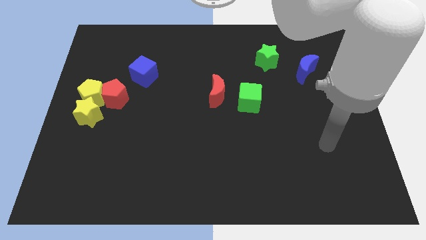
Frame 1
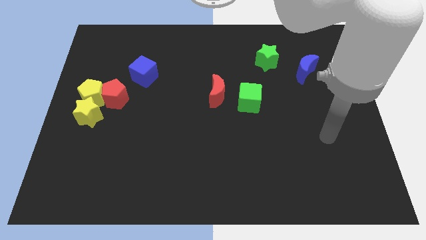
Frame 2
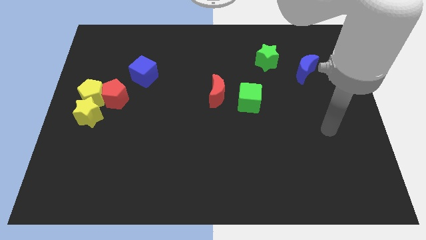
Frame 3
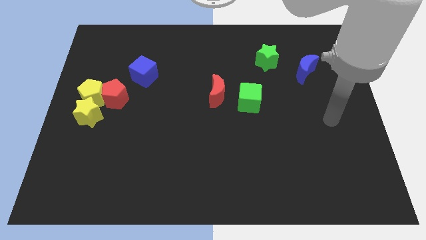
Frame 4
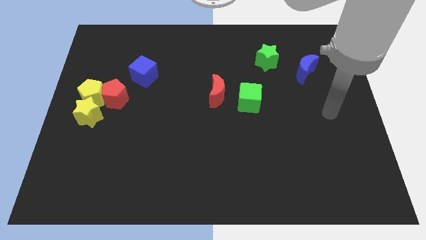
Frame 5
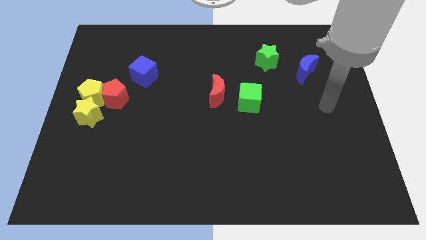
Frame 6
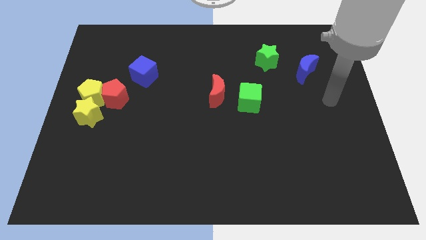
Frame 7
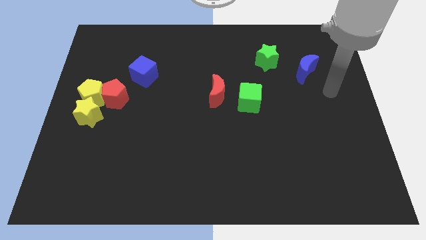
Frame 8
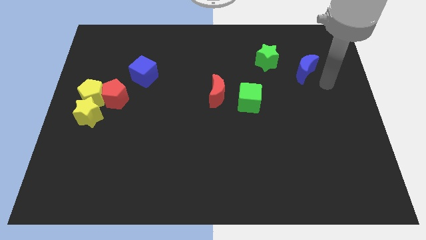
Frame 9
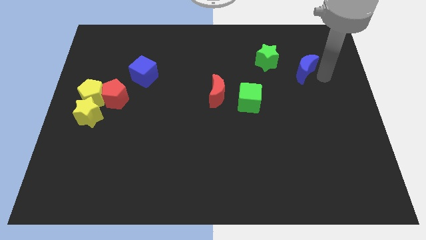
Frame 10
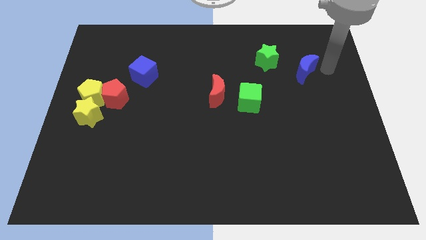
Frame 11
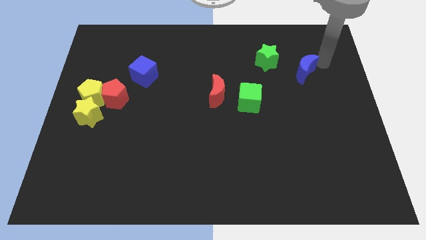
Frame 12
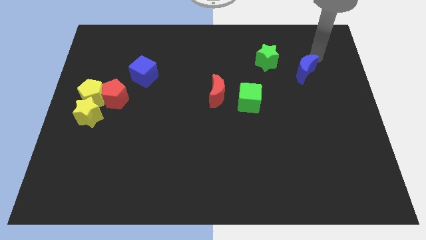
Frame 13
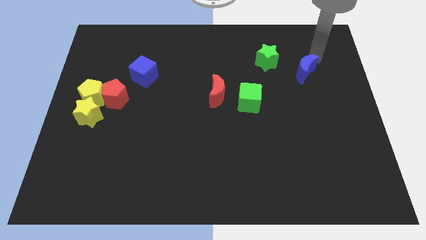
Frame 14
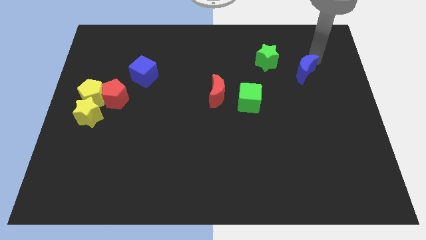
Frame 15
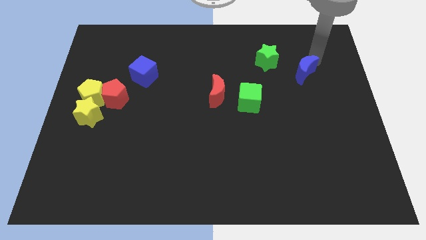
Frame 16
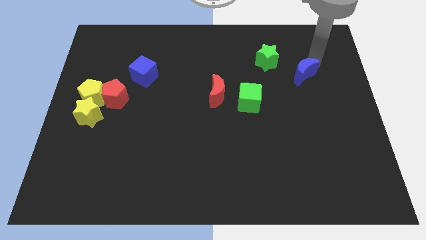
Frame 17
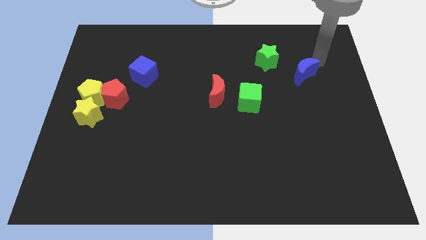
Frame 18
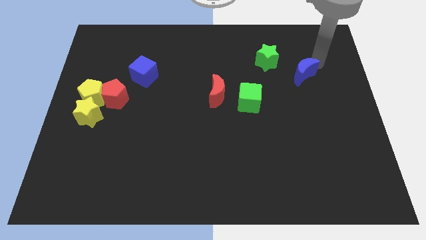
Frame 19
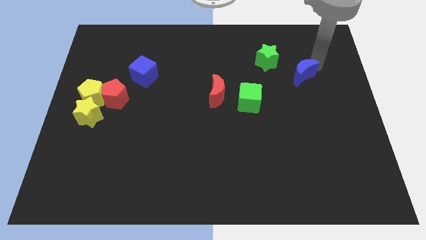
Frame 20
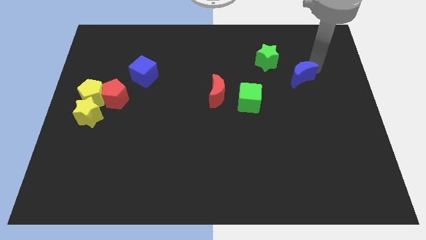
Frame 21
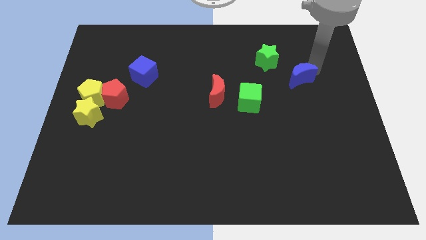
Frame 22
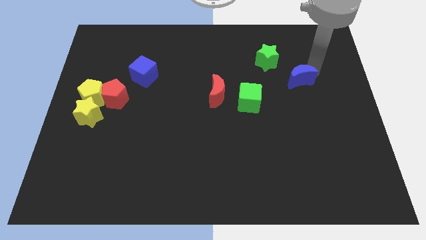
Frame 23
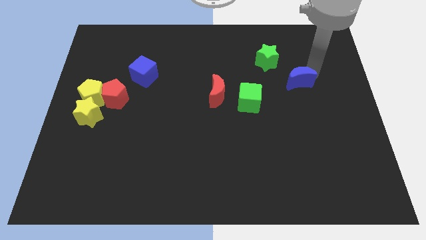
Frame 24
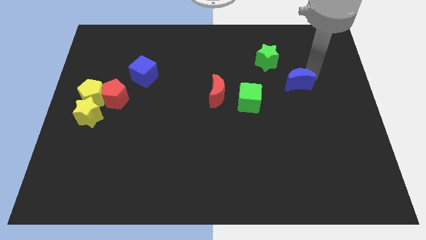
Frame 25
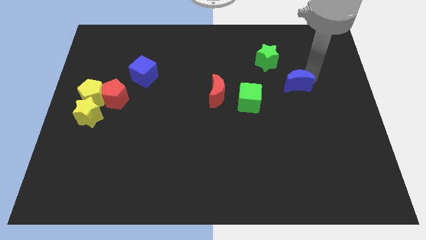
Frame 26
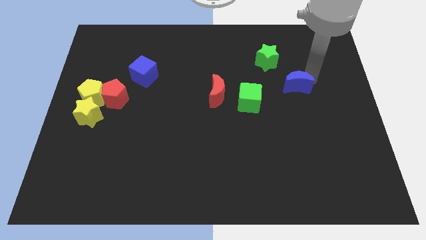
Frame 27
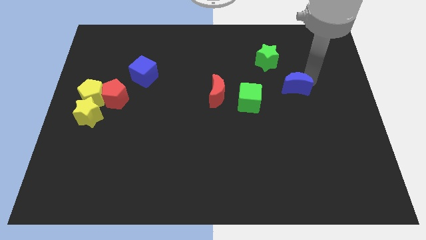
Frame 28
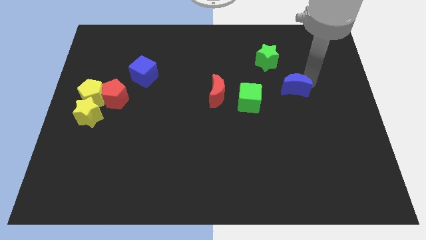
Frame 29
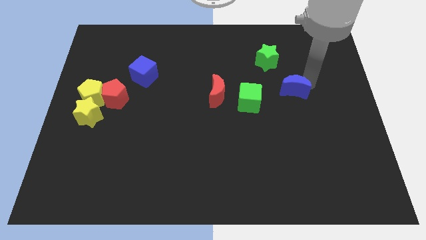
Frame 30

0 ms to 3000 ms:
slide the blue moon diagonally downwards and left a little bit

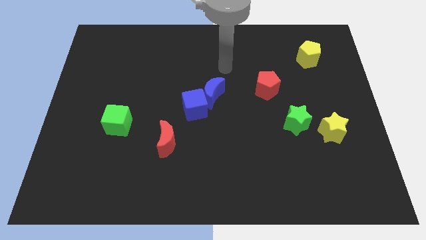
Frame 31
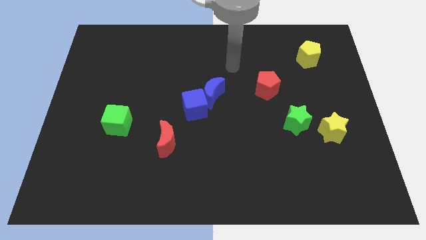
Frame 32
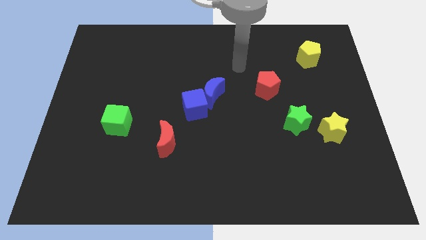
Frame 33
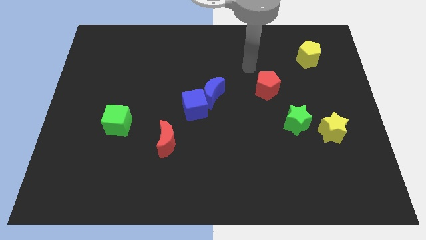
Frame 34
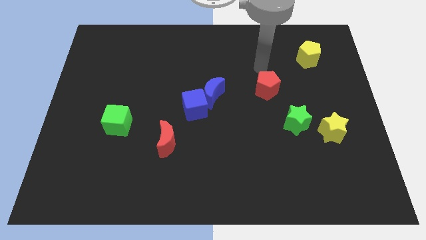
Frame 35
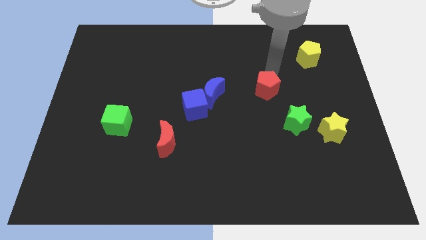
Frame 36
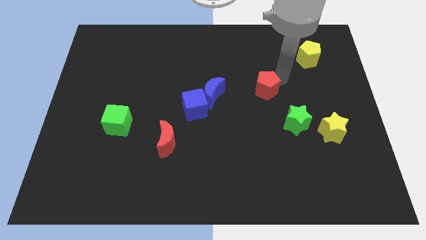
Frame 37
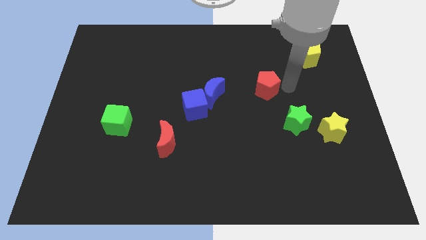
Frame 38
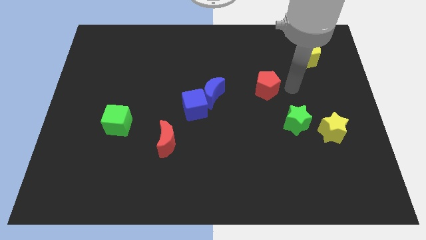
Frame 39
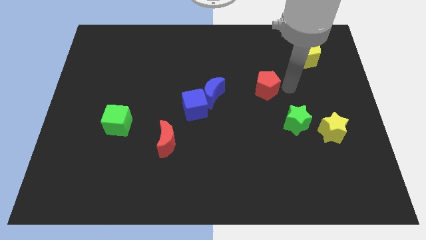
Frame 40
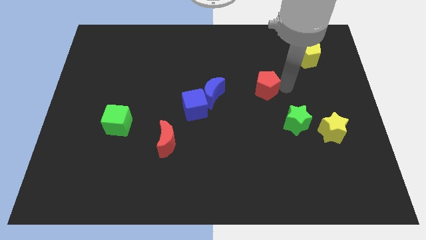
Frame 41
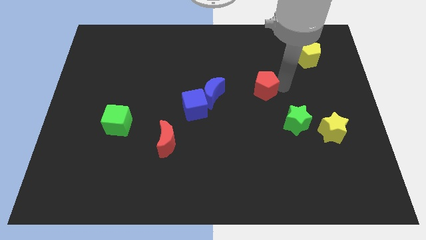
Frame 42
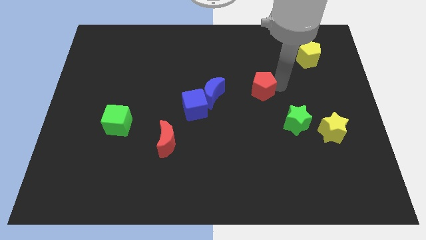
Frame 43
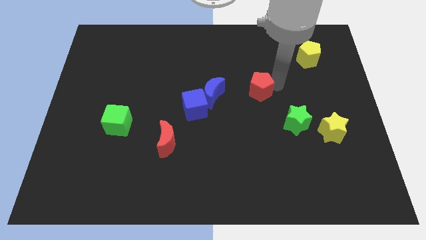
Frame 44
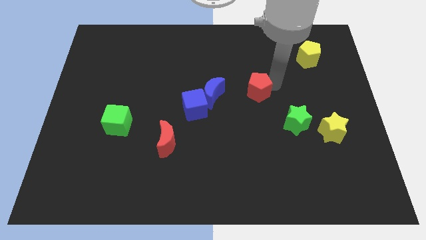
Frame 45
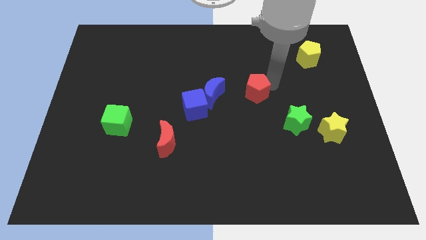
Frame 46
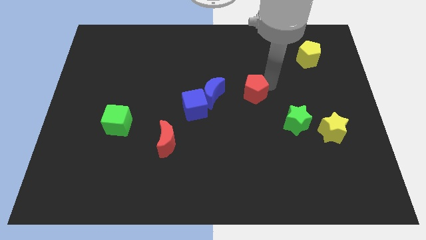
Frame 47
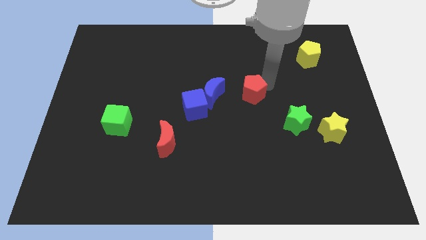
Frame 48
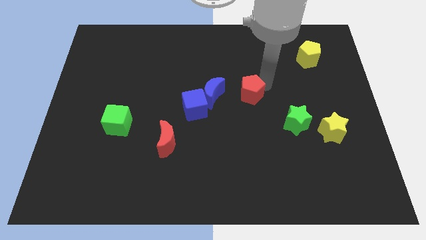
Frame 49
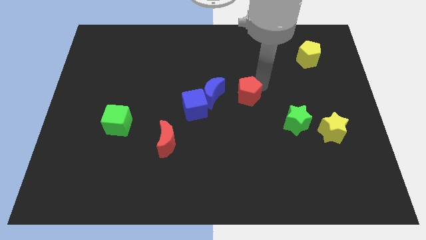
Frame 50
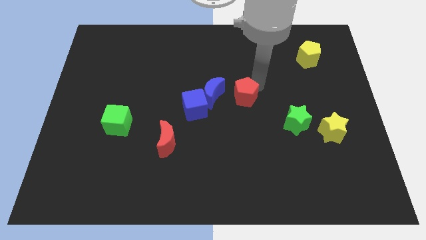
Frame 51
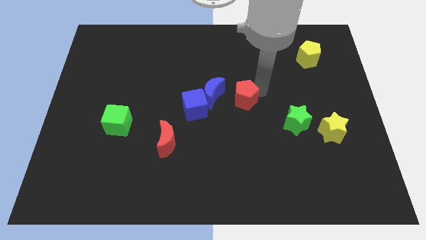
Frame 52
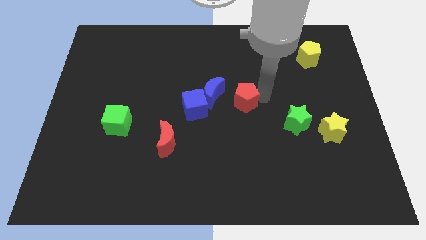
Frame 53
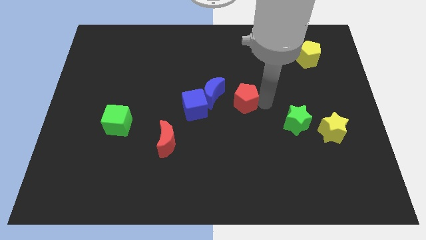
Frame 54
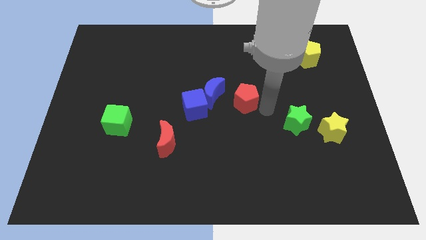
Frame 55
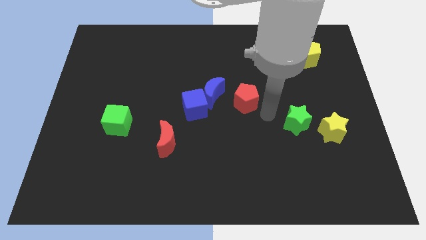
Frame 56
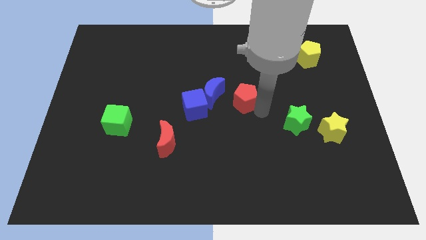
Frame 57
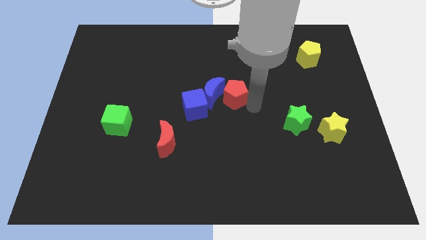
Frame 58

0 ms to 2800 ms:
slide the red pentagon left a little bit

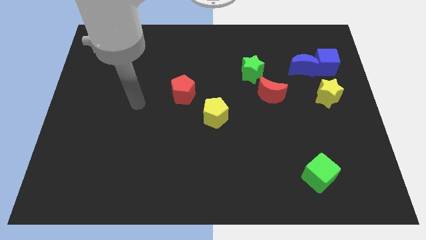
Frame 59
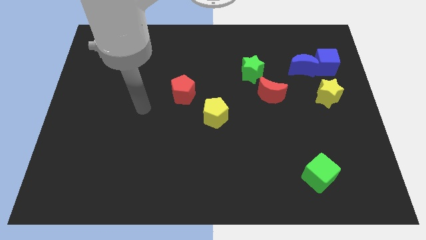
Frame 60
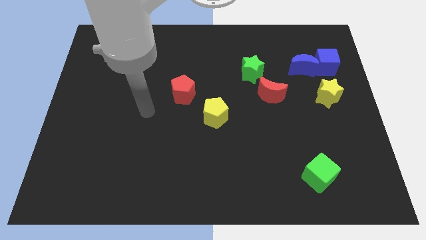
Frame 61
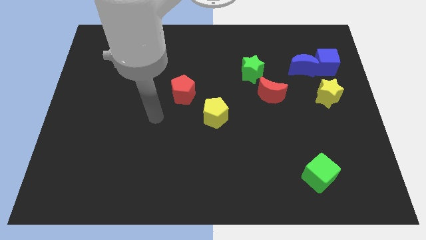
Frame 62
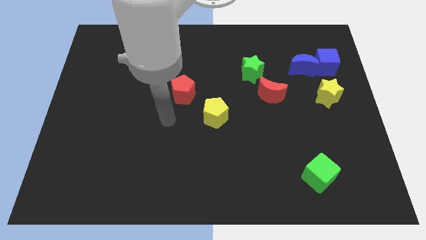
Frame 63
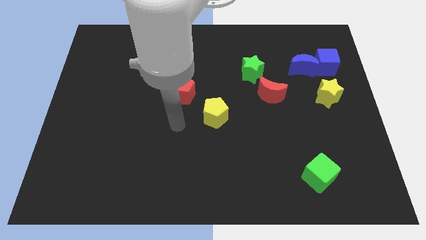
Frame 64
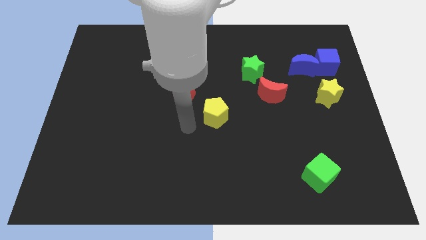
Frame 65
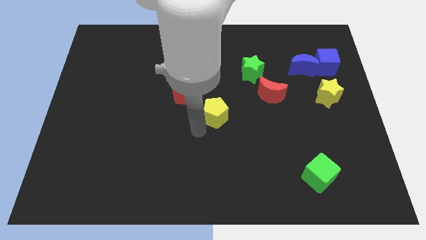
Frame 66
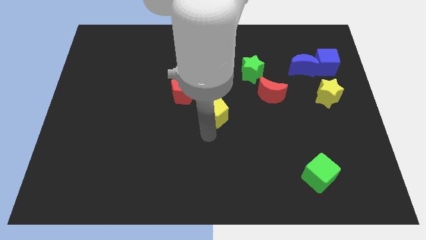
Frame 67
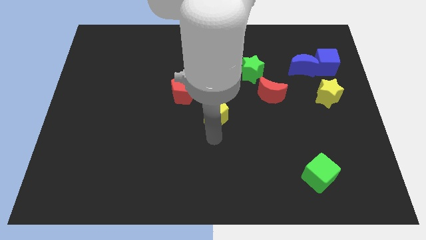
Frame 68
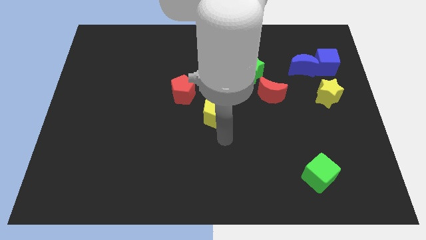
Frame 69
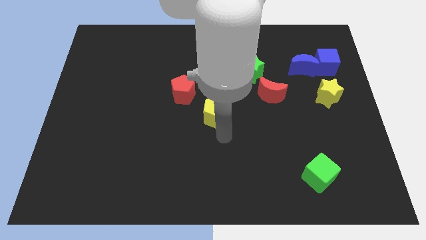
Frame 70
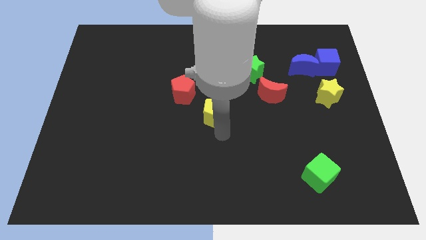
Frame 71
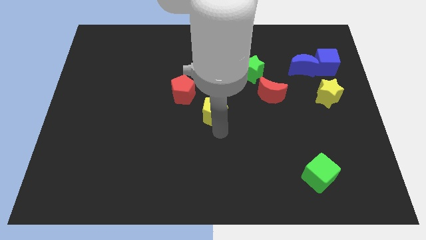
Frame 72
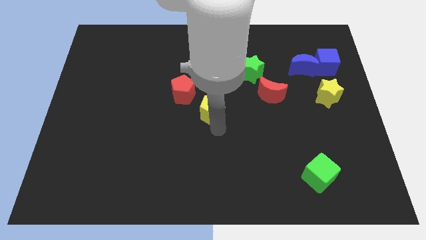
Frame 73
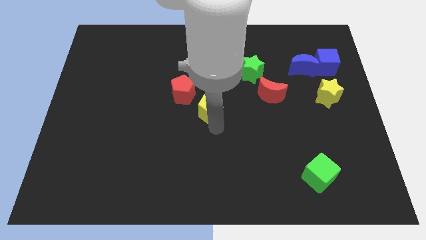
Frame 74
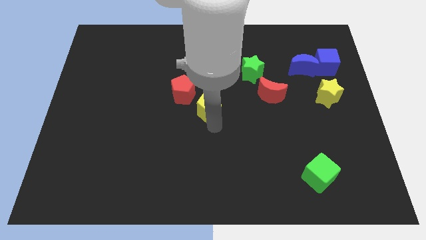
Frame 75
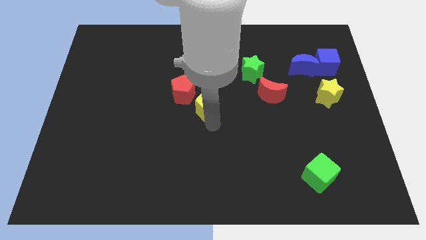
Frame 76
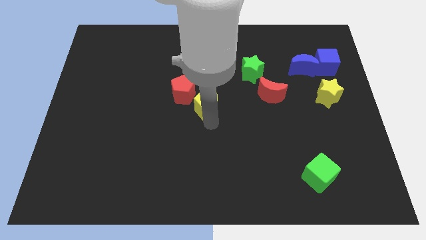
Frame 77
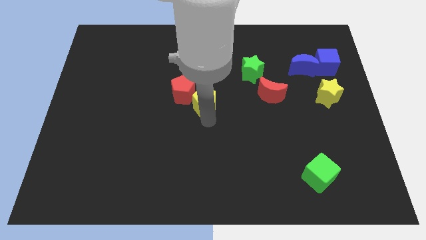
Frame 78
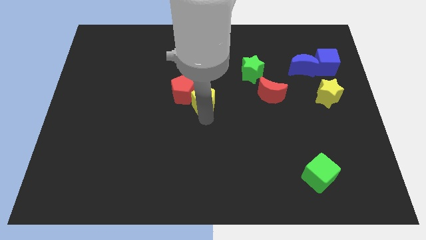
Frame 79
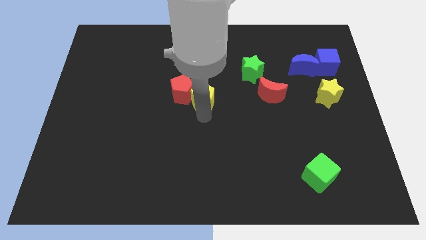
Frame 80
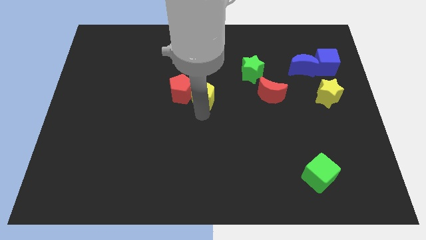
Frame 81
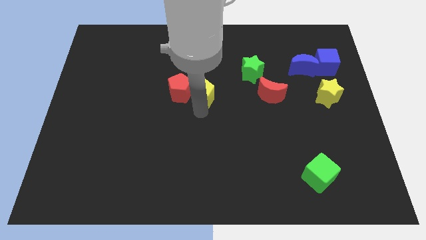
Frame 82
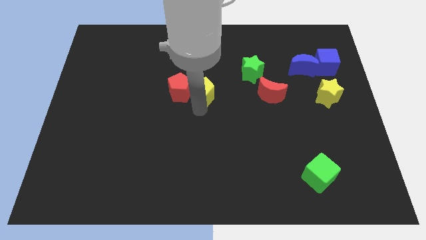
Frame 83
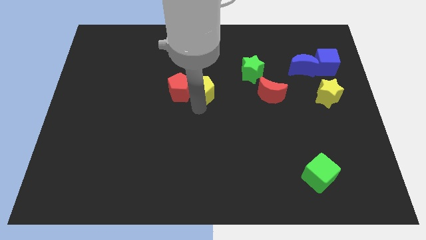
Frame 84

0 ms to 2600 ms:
move the yellow pentagon up and left diagonally a bit
